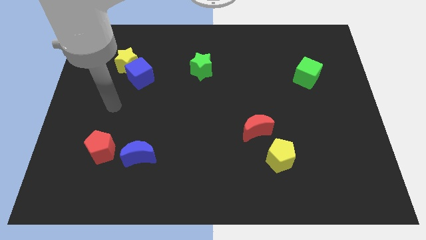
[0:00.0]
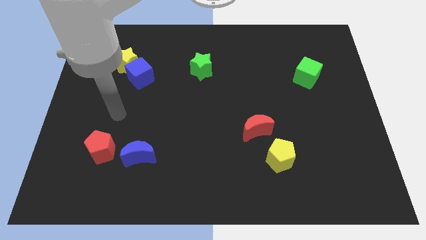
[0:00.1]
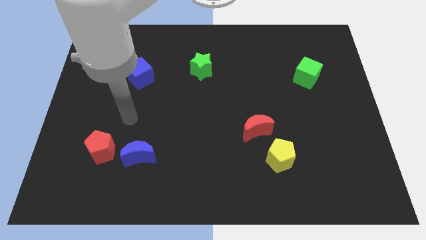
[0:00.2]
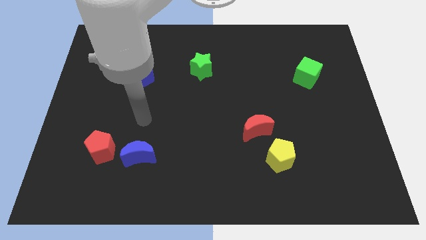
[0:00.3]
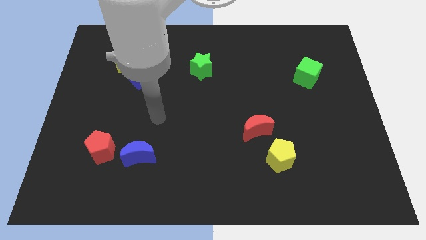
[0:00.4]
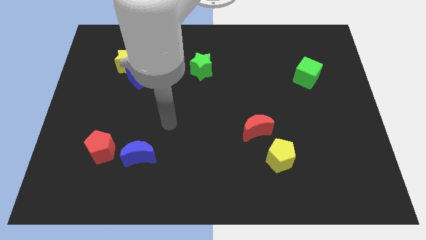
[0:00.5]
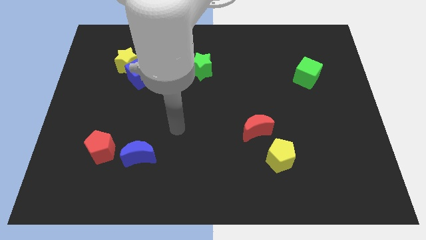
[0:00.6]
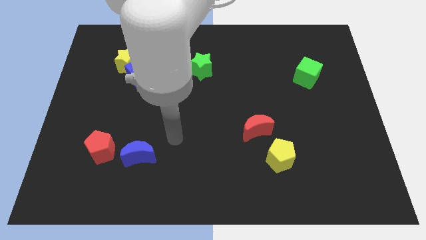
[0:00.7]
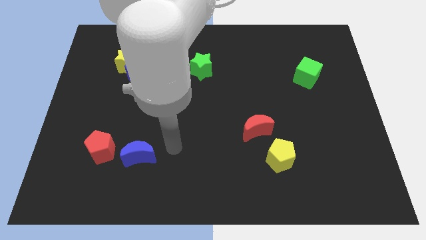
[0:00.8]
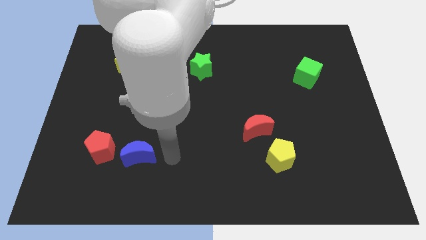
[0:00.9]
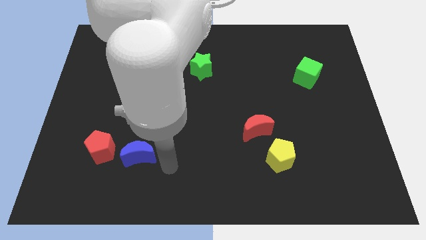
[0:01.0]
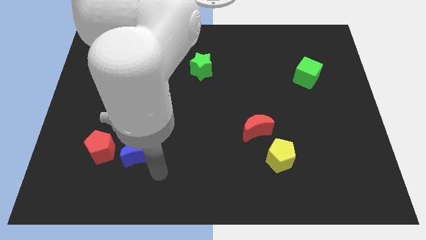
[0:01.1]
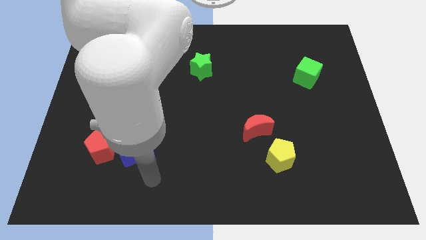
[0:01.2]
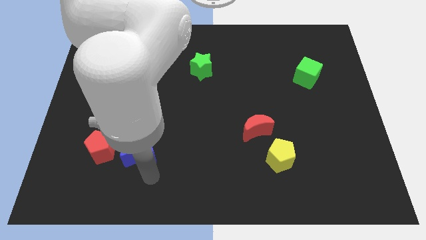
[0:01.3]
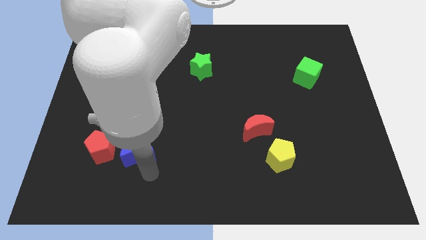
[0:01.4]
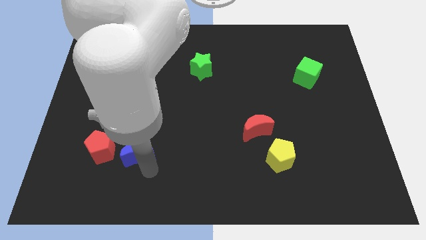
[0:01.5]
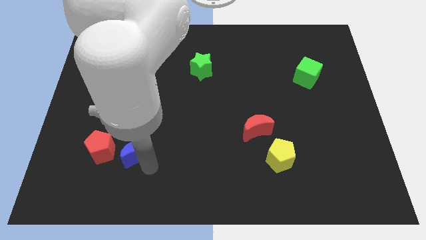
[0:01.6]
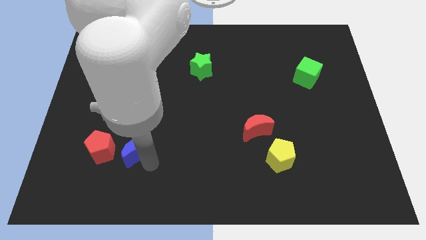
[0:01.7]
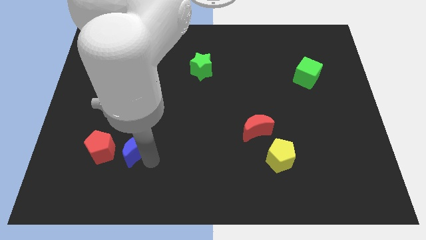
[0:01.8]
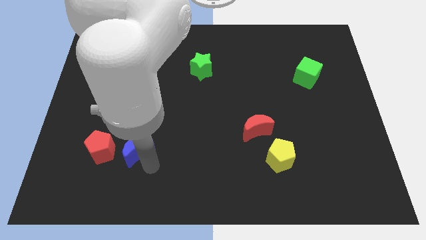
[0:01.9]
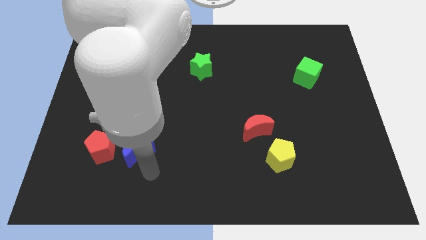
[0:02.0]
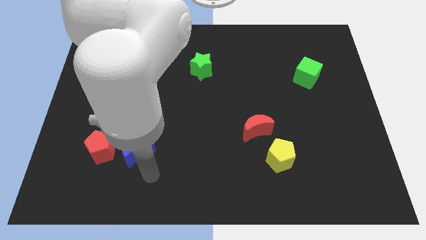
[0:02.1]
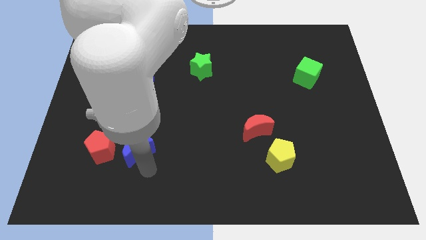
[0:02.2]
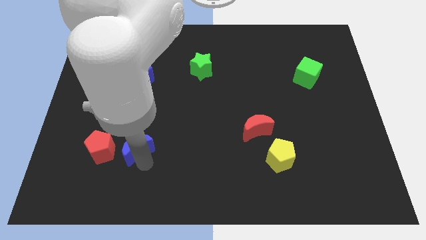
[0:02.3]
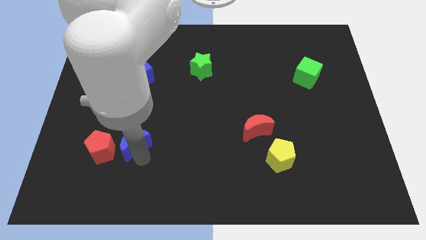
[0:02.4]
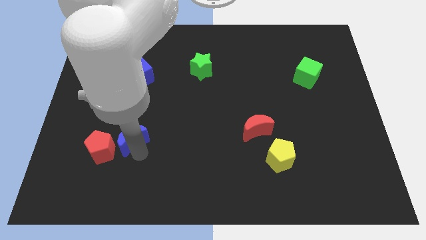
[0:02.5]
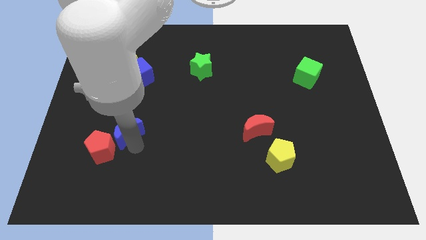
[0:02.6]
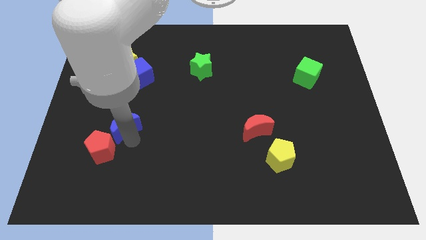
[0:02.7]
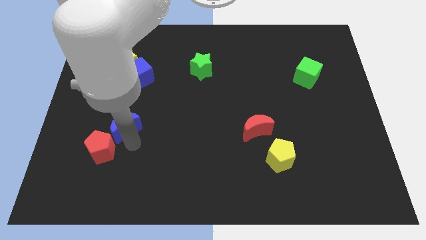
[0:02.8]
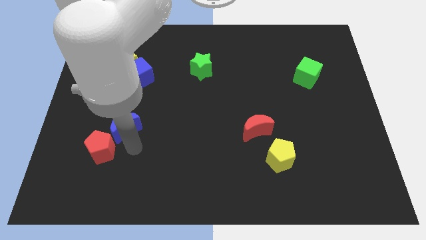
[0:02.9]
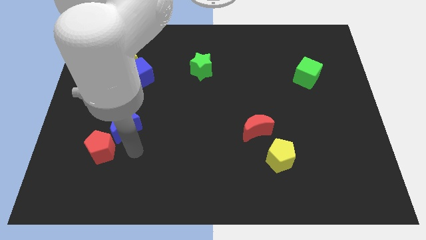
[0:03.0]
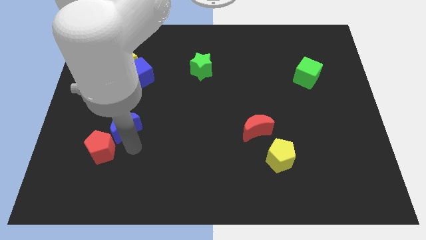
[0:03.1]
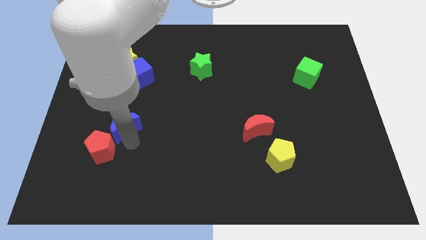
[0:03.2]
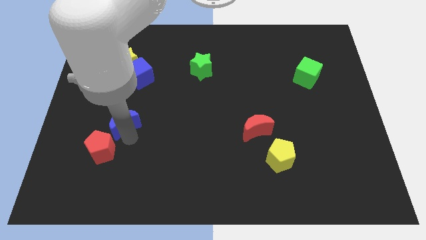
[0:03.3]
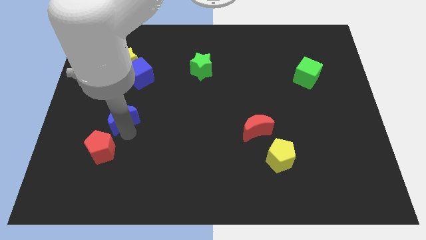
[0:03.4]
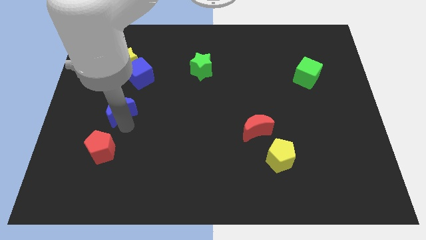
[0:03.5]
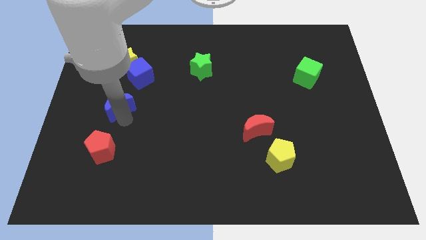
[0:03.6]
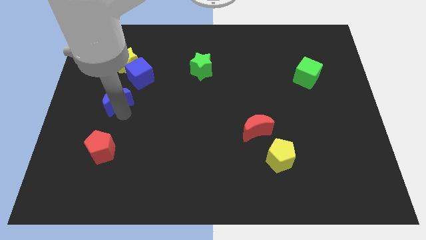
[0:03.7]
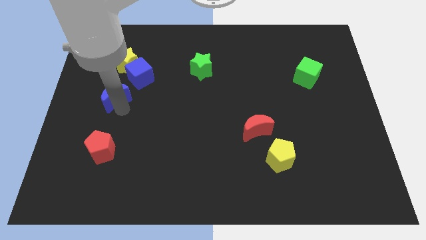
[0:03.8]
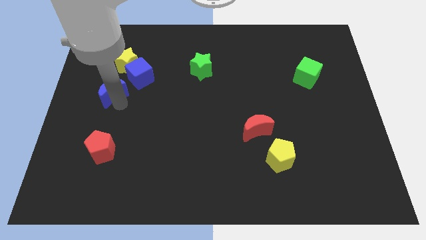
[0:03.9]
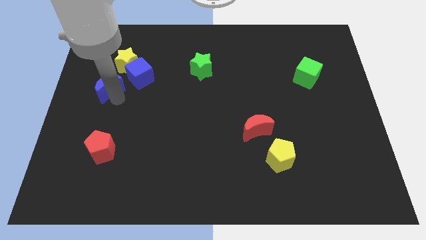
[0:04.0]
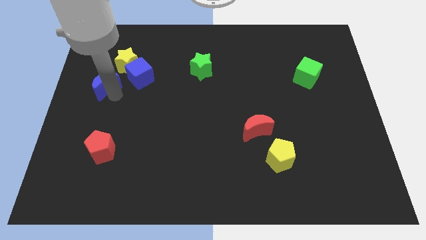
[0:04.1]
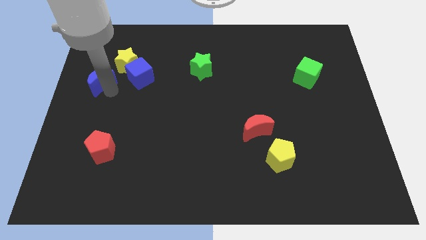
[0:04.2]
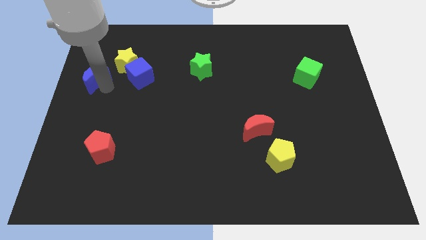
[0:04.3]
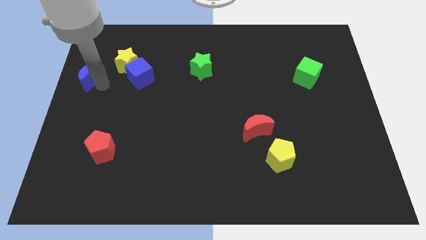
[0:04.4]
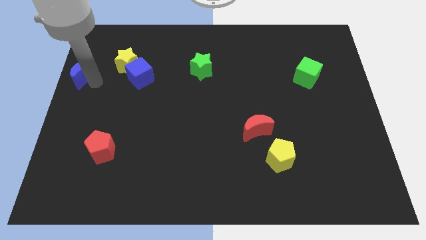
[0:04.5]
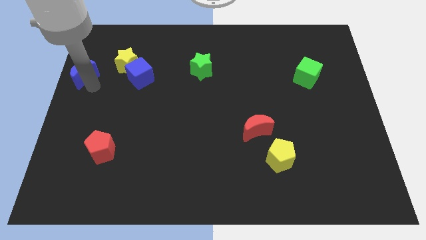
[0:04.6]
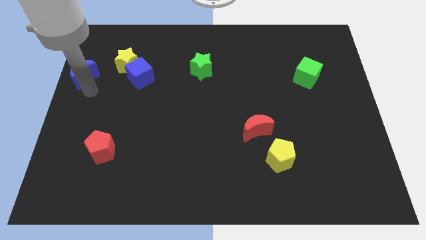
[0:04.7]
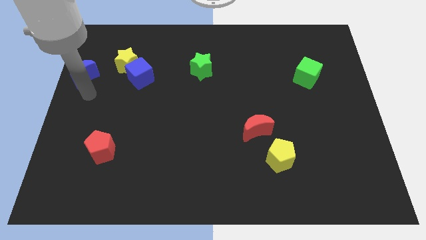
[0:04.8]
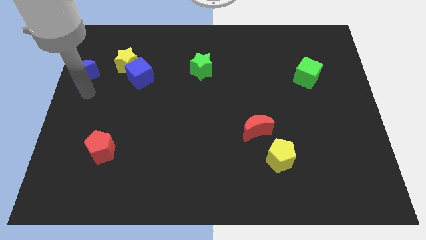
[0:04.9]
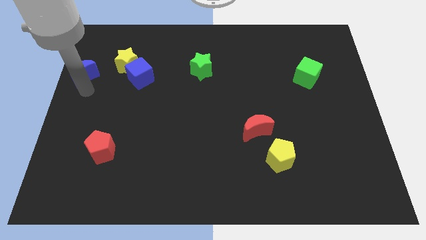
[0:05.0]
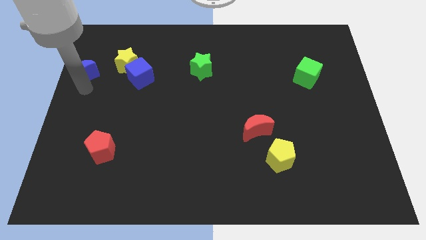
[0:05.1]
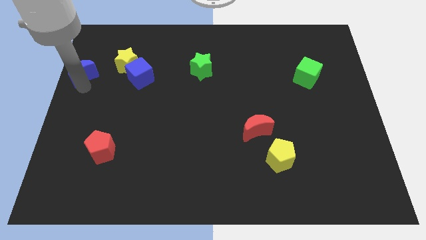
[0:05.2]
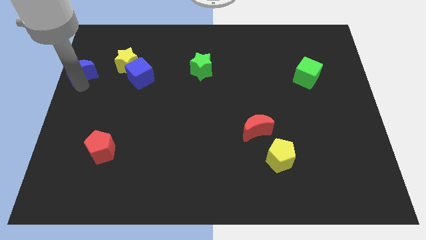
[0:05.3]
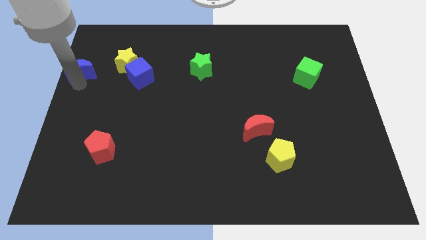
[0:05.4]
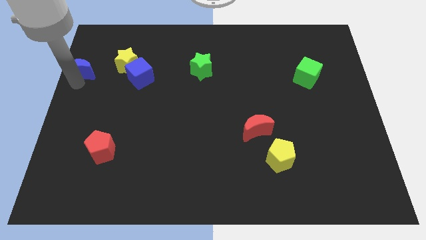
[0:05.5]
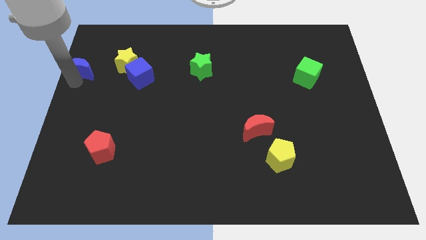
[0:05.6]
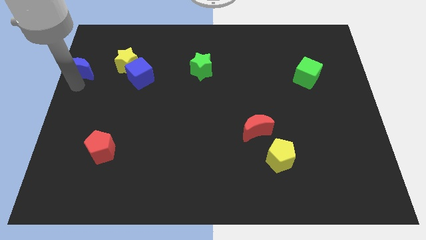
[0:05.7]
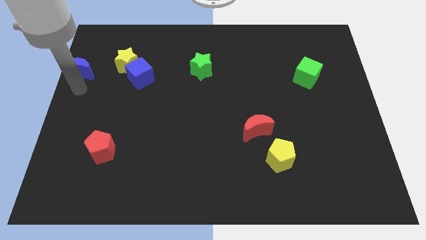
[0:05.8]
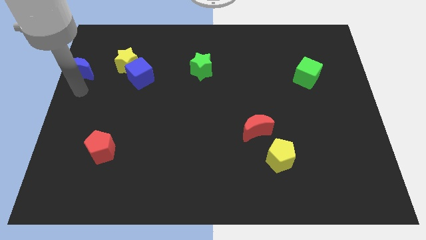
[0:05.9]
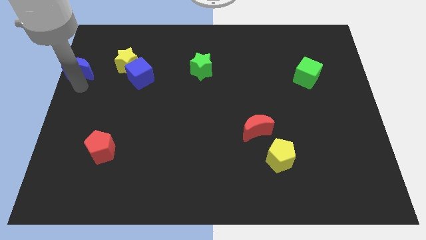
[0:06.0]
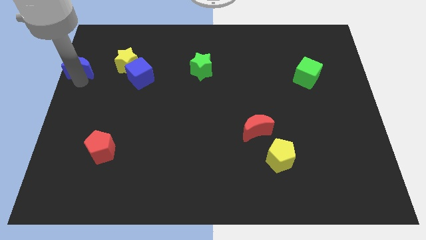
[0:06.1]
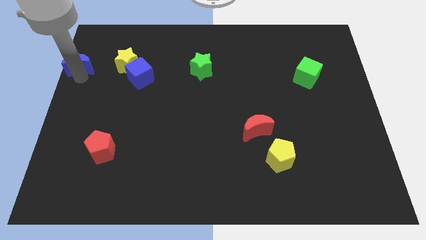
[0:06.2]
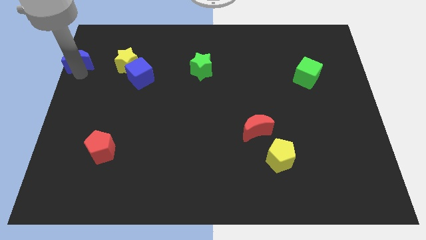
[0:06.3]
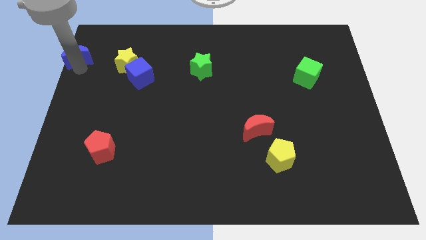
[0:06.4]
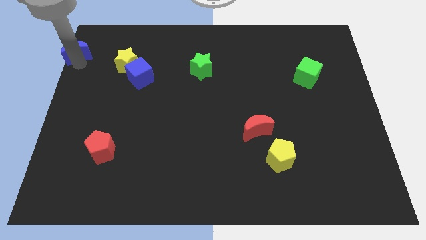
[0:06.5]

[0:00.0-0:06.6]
put the blue moon to the upper left corner
